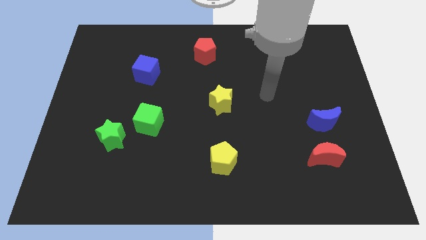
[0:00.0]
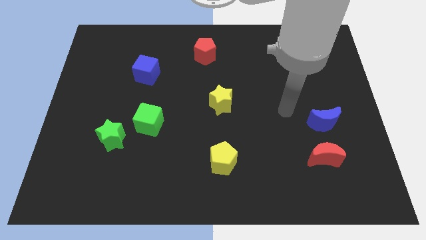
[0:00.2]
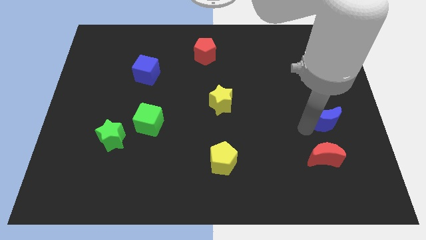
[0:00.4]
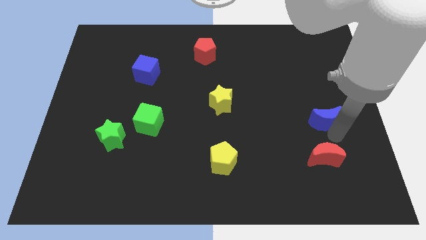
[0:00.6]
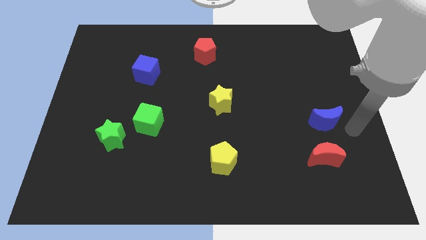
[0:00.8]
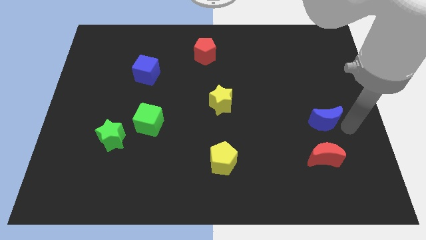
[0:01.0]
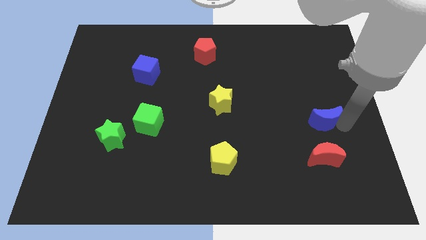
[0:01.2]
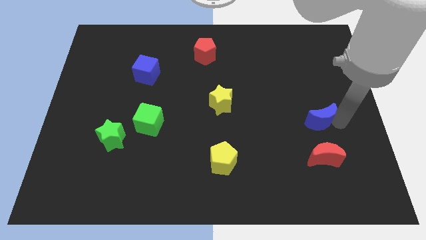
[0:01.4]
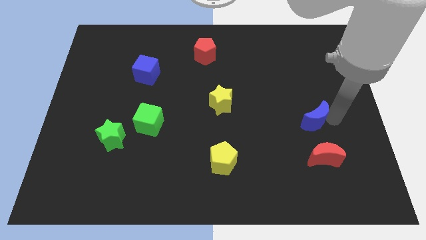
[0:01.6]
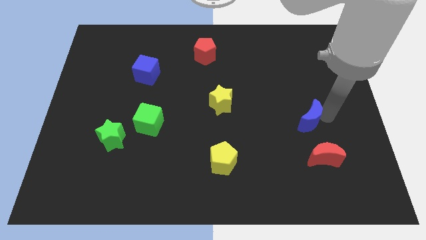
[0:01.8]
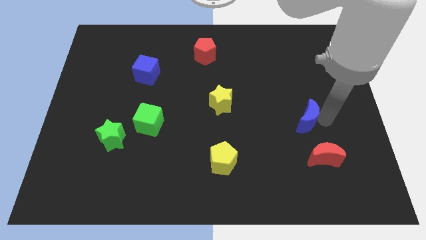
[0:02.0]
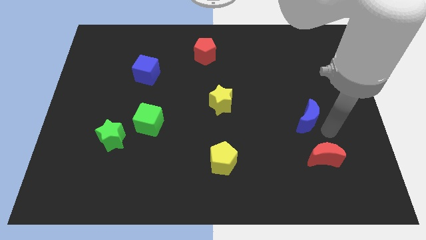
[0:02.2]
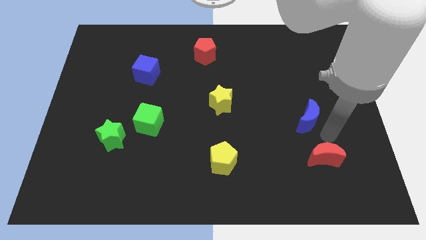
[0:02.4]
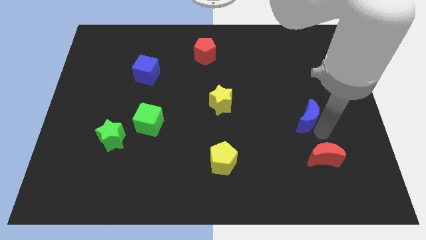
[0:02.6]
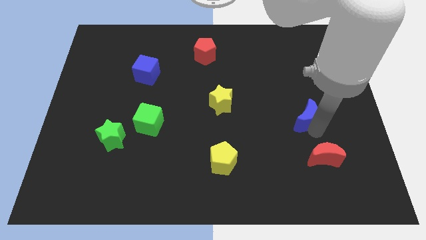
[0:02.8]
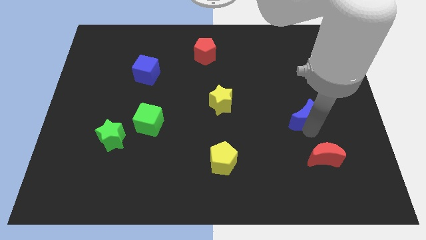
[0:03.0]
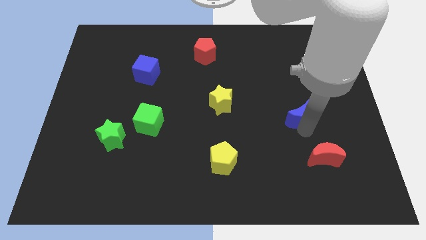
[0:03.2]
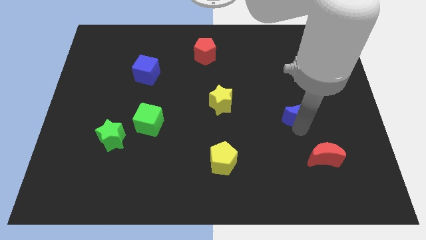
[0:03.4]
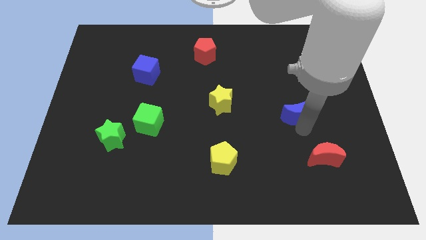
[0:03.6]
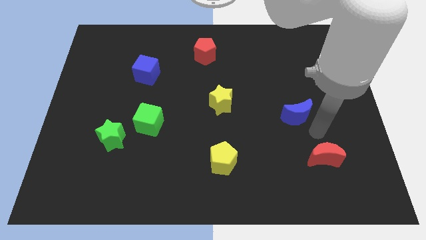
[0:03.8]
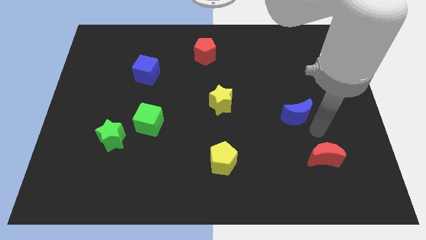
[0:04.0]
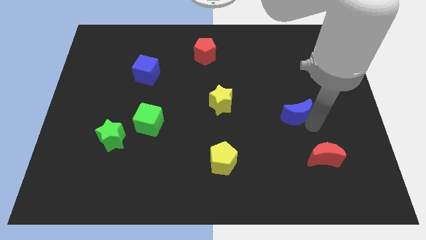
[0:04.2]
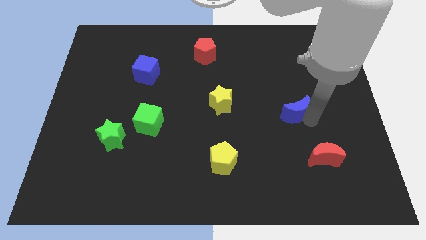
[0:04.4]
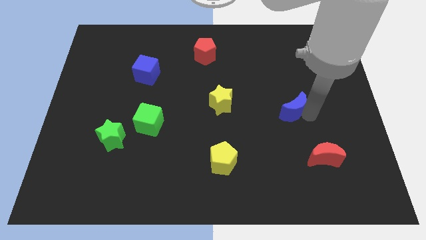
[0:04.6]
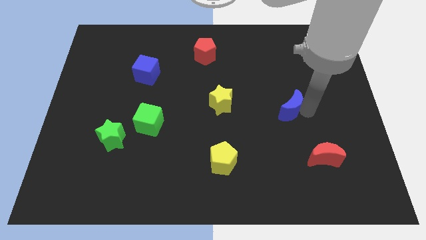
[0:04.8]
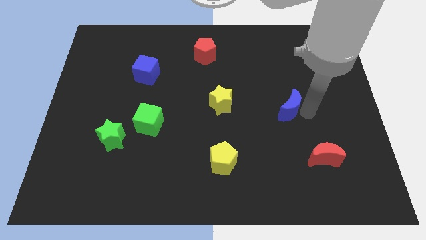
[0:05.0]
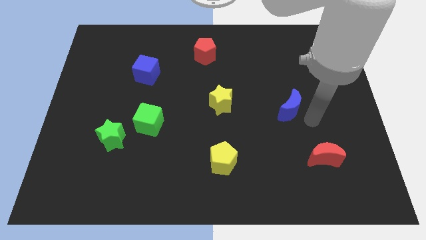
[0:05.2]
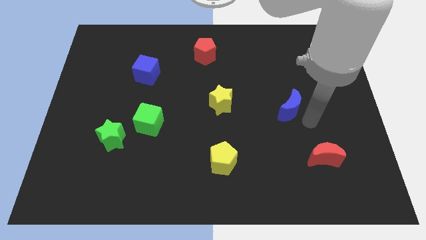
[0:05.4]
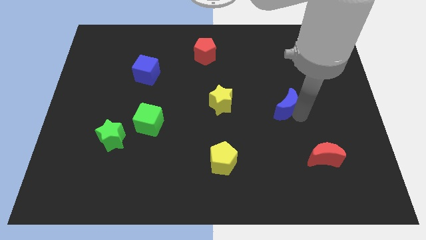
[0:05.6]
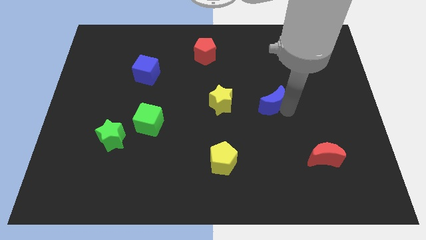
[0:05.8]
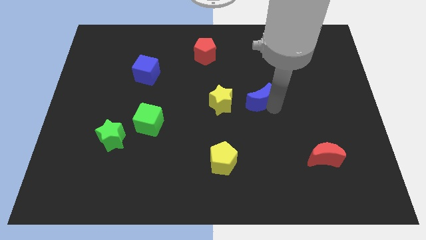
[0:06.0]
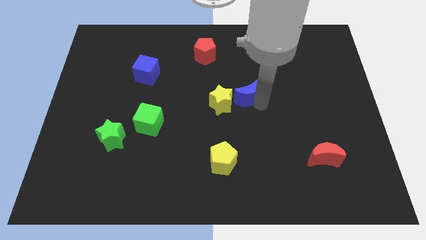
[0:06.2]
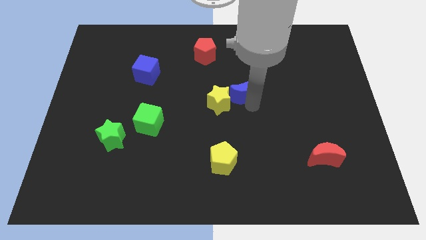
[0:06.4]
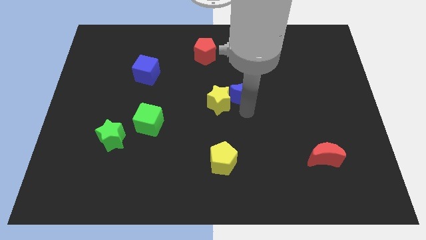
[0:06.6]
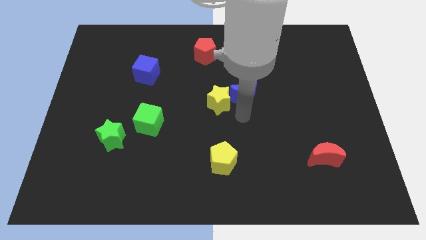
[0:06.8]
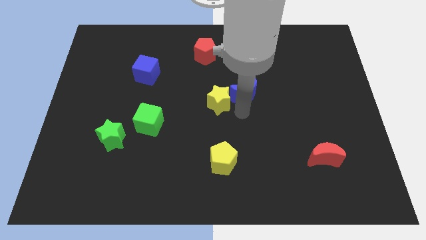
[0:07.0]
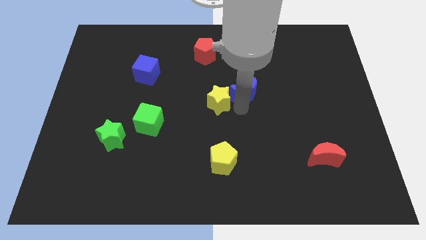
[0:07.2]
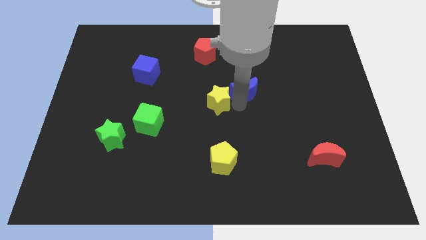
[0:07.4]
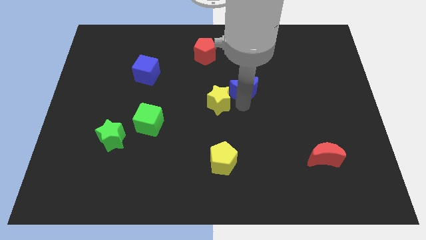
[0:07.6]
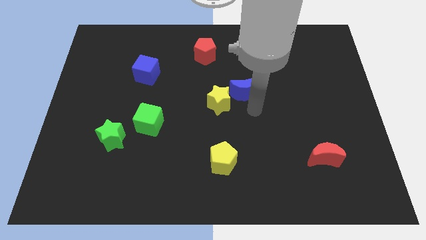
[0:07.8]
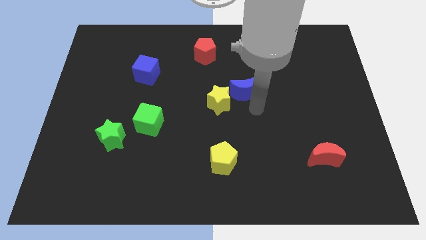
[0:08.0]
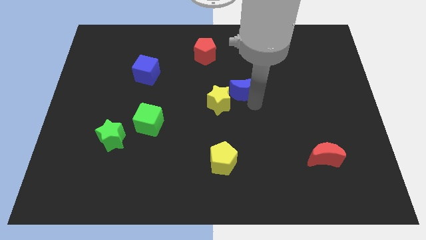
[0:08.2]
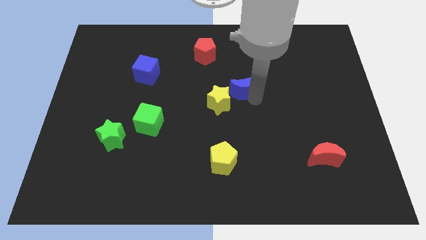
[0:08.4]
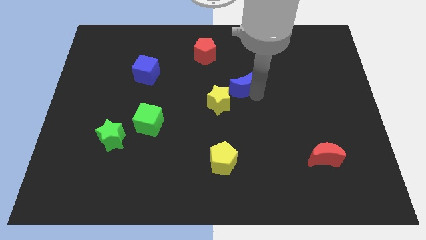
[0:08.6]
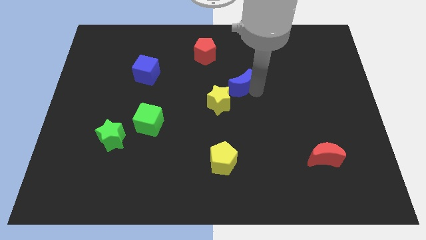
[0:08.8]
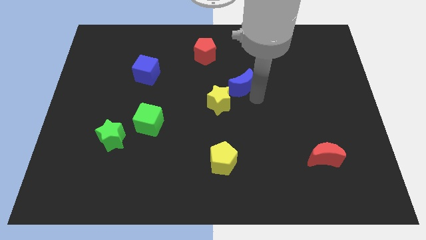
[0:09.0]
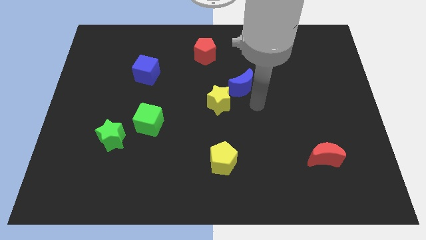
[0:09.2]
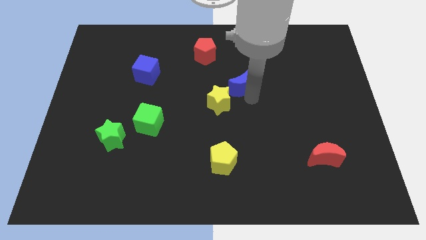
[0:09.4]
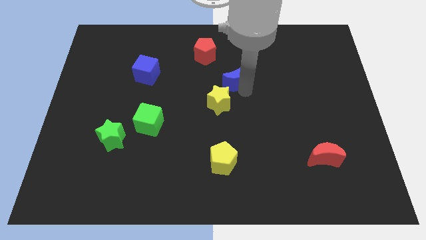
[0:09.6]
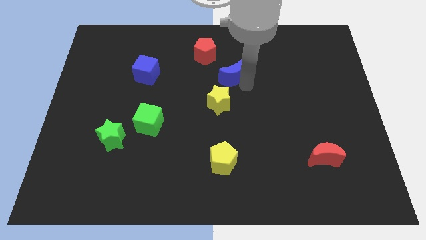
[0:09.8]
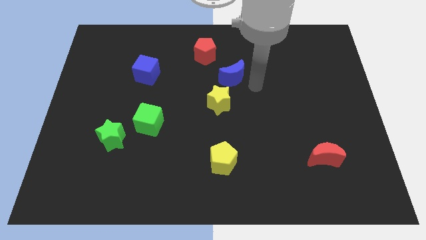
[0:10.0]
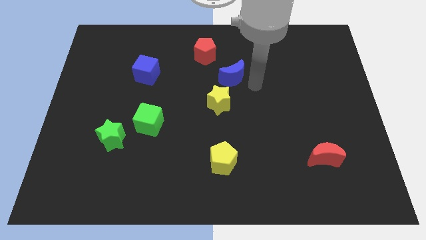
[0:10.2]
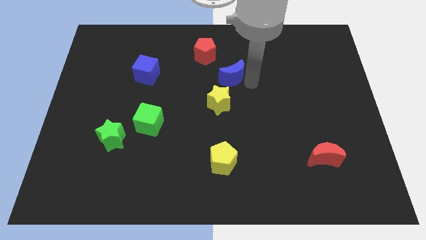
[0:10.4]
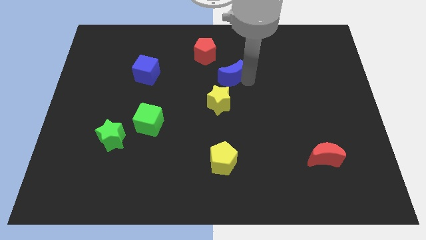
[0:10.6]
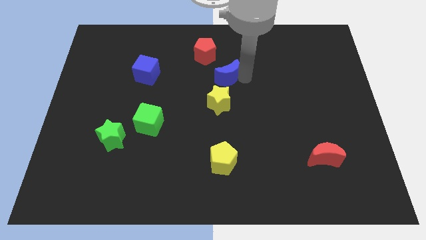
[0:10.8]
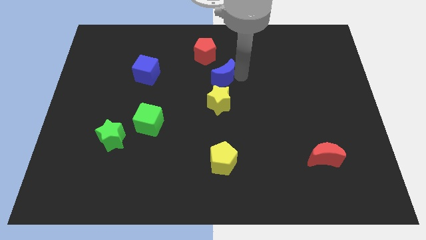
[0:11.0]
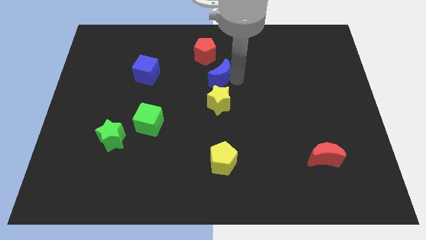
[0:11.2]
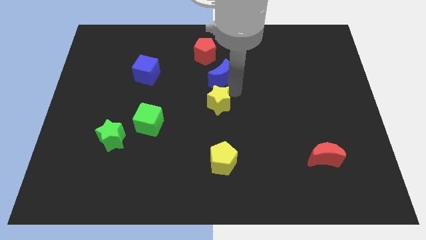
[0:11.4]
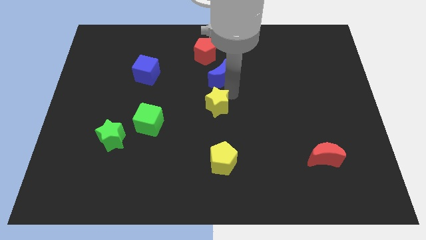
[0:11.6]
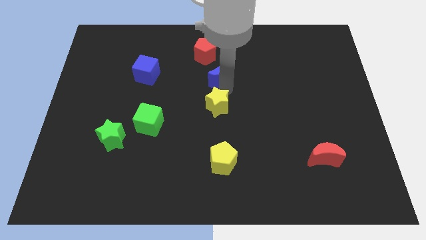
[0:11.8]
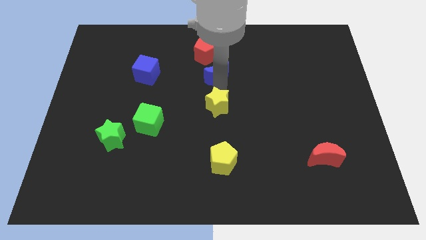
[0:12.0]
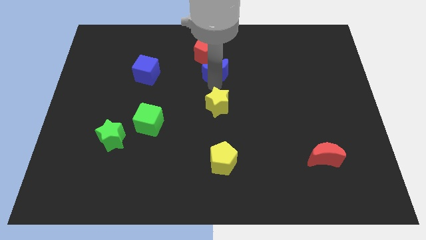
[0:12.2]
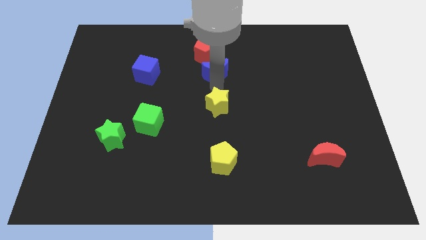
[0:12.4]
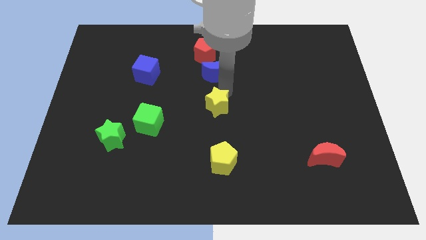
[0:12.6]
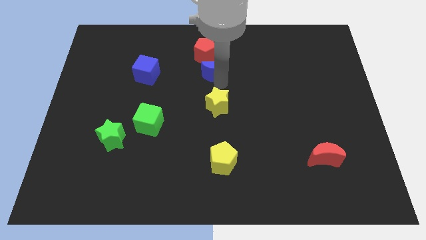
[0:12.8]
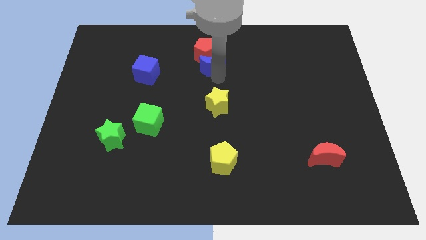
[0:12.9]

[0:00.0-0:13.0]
move the blue moon close to the red pentagon

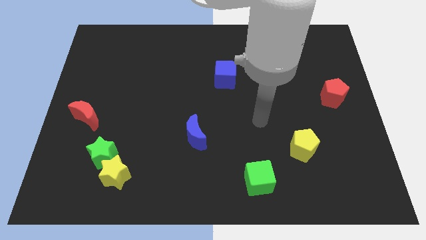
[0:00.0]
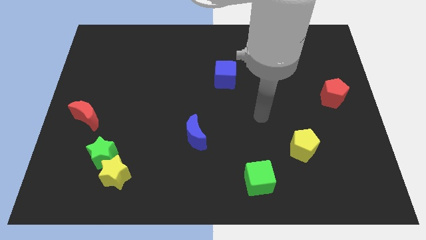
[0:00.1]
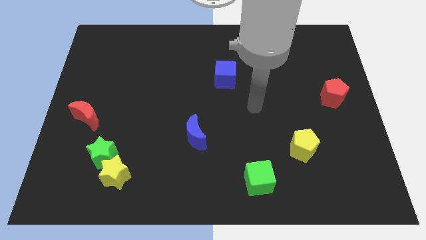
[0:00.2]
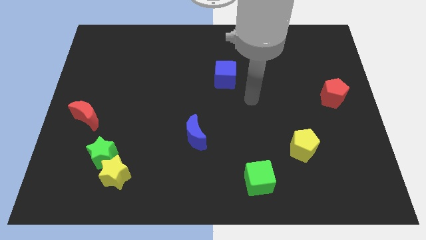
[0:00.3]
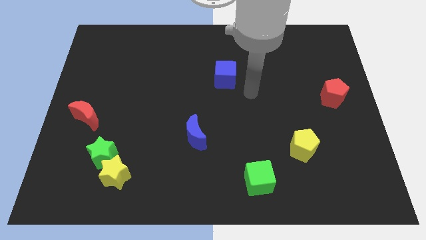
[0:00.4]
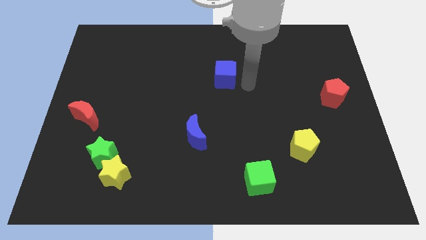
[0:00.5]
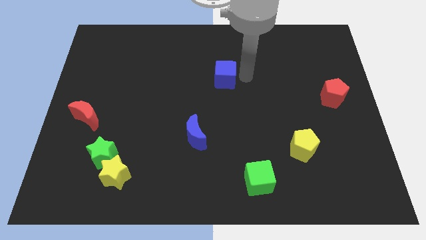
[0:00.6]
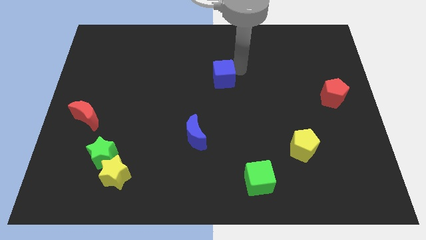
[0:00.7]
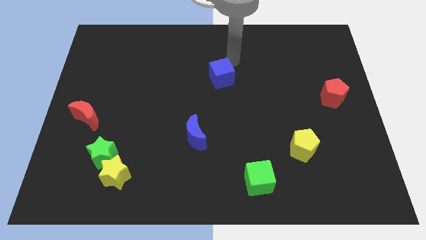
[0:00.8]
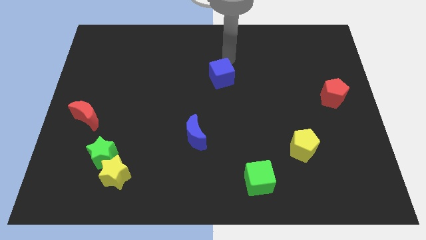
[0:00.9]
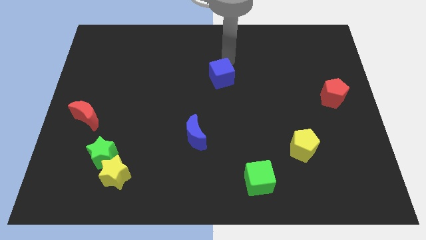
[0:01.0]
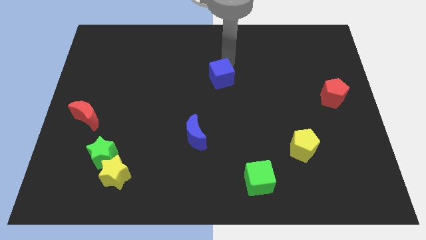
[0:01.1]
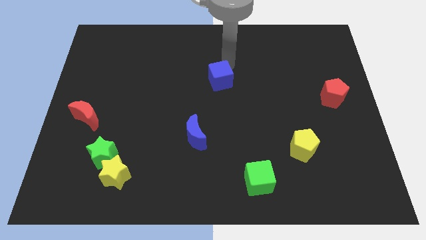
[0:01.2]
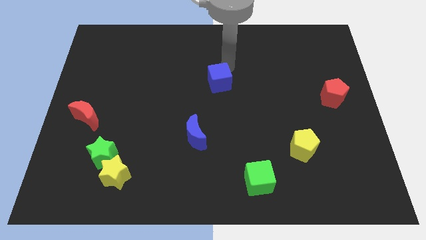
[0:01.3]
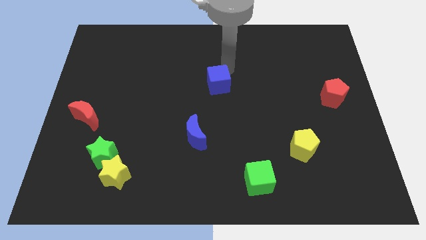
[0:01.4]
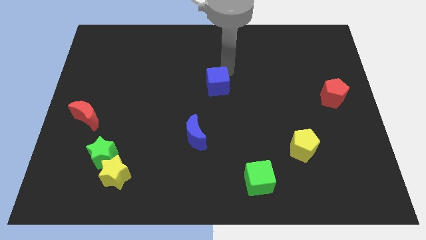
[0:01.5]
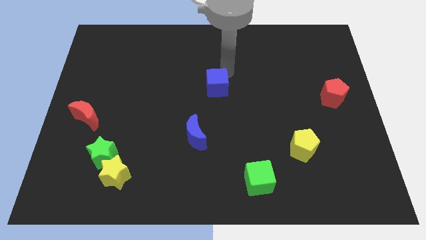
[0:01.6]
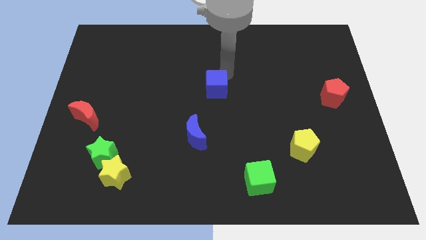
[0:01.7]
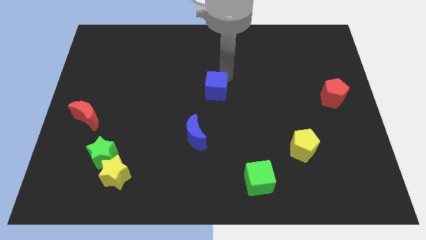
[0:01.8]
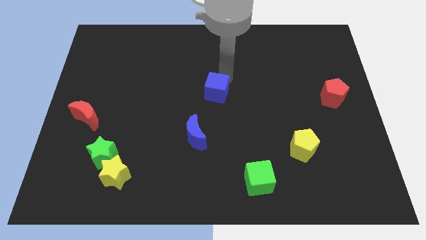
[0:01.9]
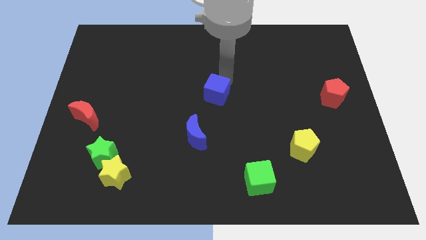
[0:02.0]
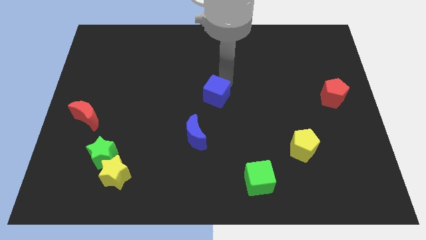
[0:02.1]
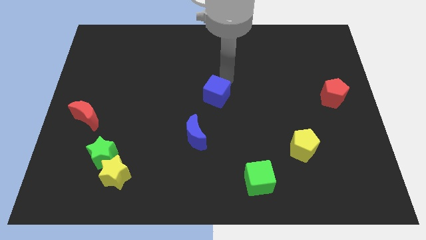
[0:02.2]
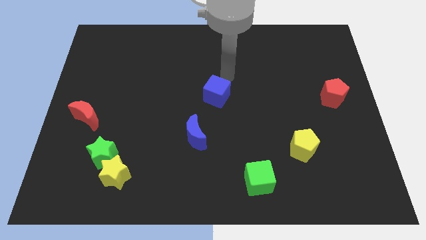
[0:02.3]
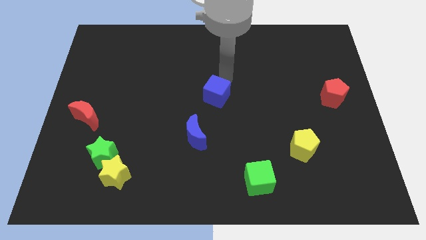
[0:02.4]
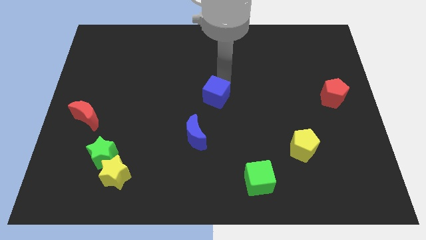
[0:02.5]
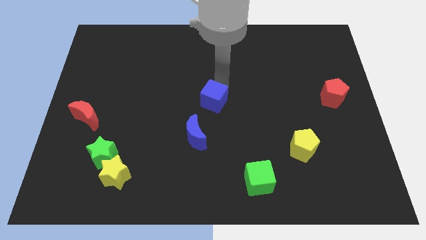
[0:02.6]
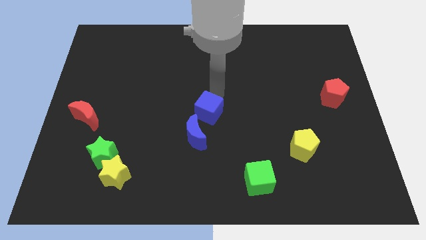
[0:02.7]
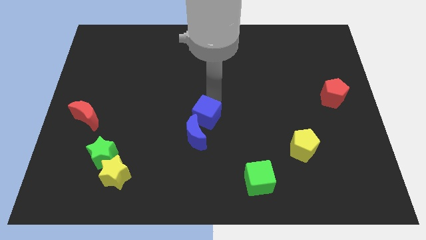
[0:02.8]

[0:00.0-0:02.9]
put the blue cube next to the blue moon
